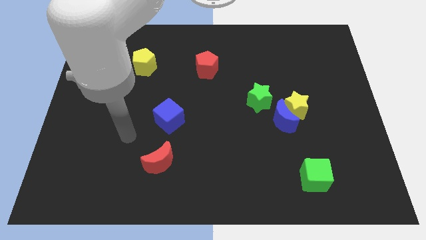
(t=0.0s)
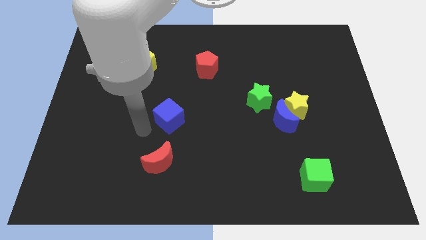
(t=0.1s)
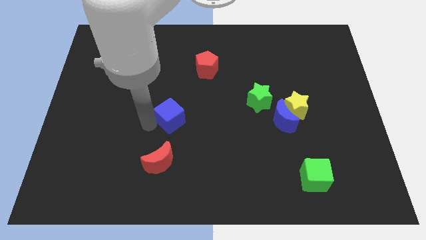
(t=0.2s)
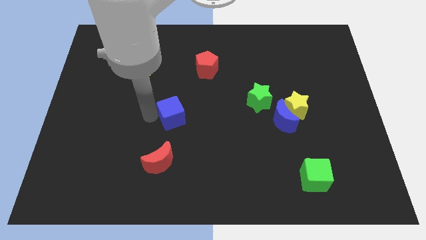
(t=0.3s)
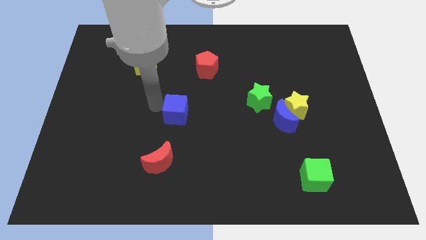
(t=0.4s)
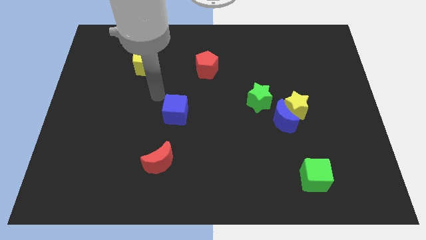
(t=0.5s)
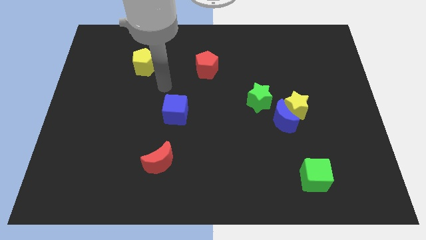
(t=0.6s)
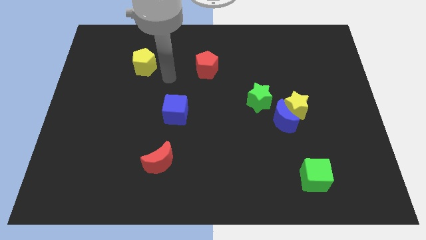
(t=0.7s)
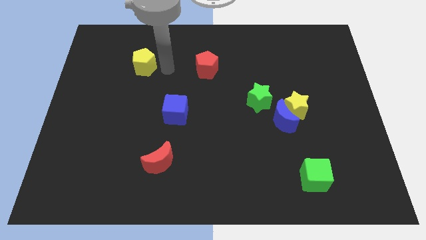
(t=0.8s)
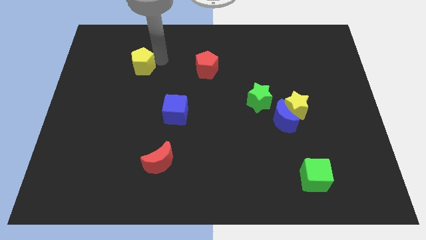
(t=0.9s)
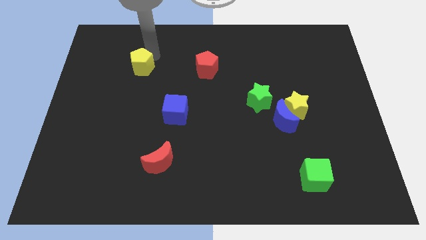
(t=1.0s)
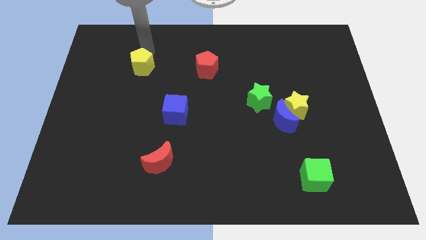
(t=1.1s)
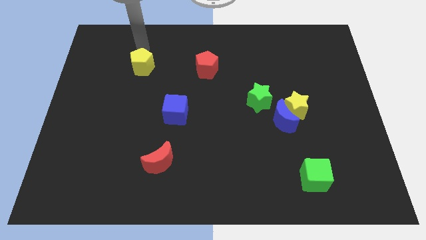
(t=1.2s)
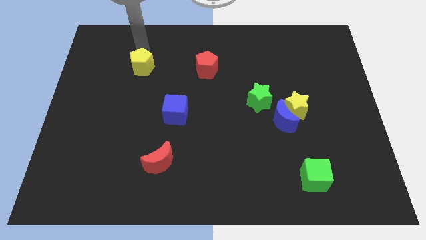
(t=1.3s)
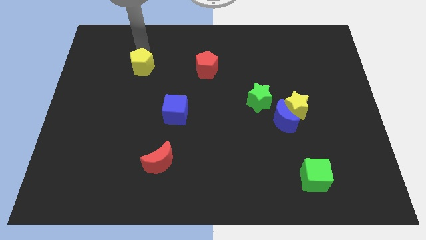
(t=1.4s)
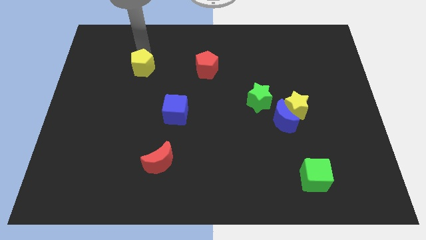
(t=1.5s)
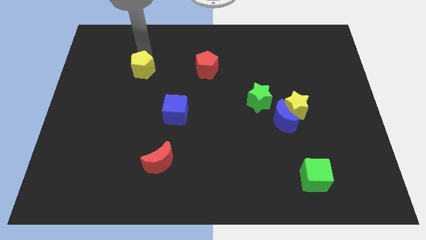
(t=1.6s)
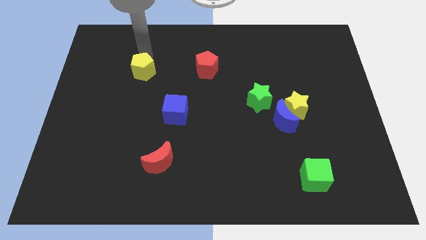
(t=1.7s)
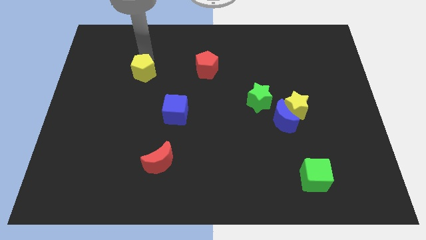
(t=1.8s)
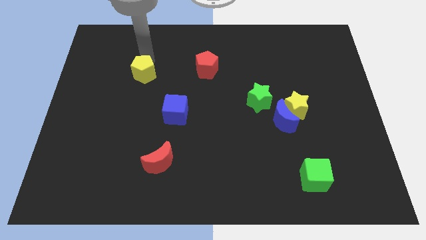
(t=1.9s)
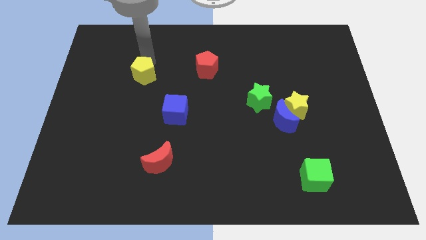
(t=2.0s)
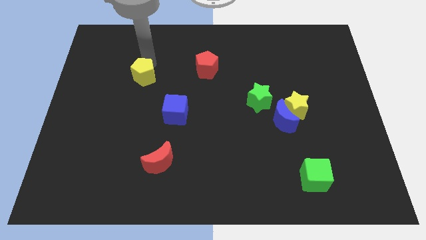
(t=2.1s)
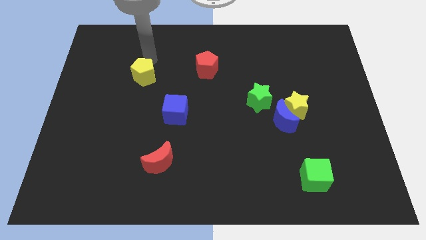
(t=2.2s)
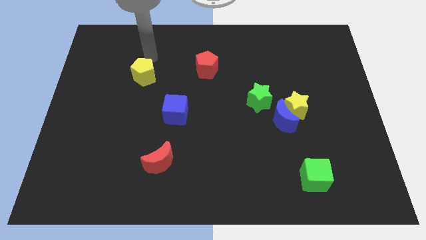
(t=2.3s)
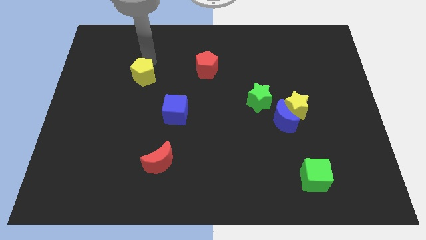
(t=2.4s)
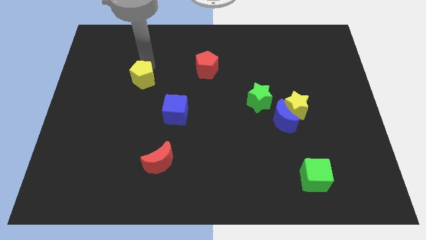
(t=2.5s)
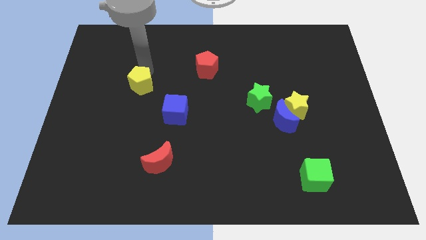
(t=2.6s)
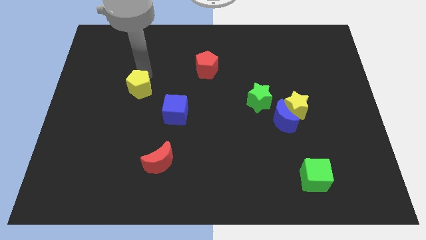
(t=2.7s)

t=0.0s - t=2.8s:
slightly push the yellow pentagon downwards

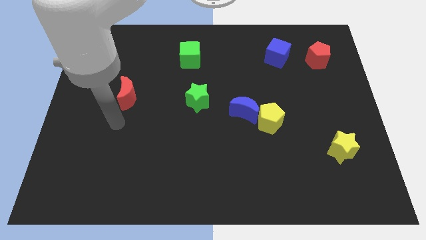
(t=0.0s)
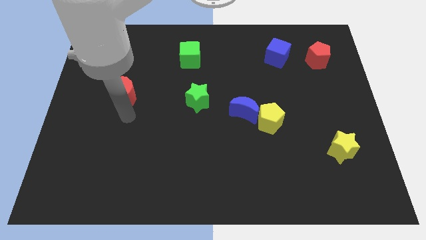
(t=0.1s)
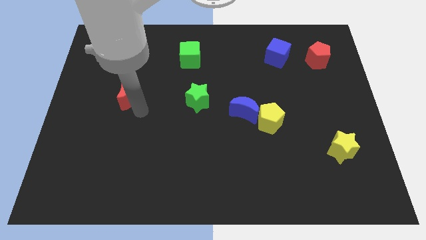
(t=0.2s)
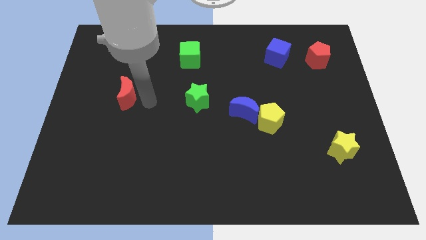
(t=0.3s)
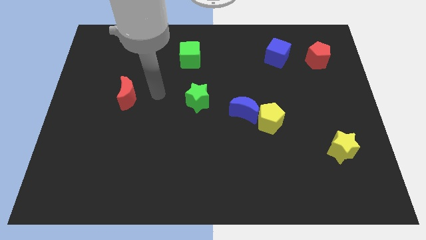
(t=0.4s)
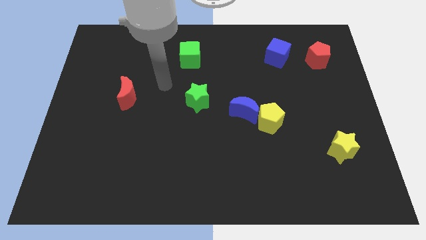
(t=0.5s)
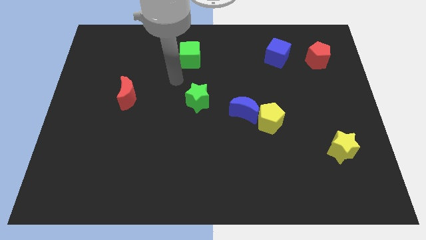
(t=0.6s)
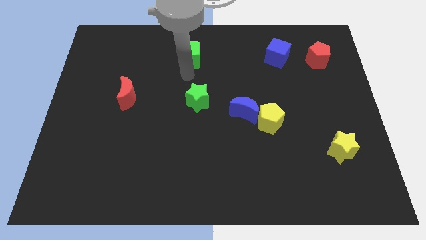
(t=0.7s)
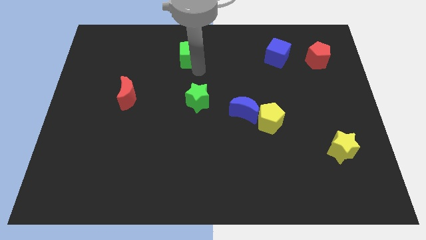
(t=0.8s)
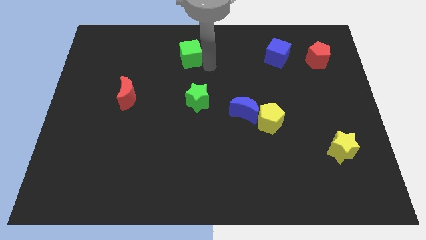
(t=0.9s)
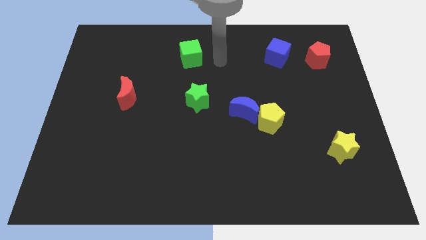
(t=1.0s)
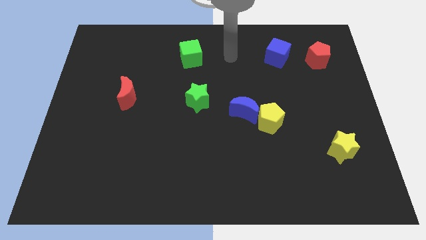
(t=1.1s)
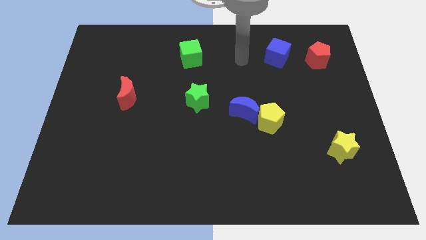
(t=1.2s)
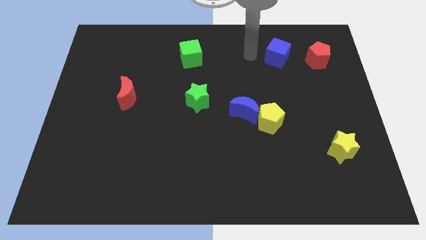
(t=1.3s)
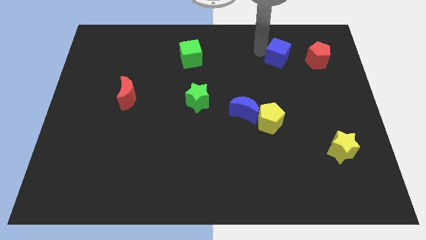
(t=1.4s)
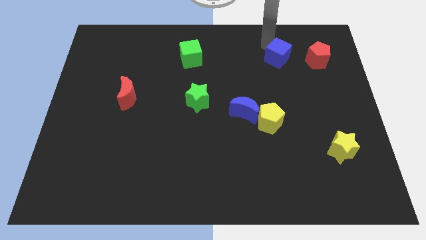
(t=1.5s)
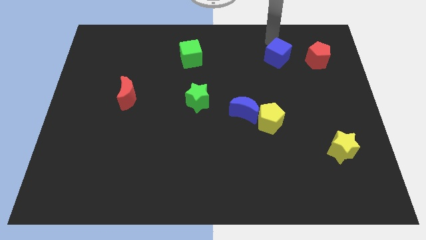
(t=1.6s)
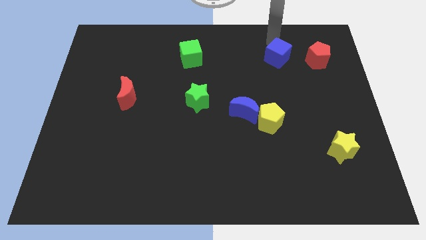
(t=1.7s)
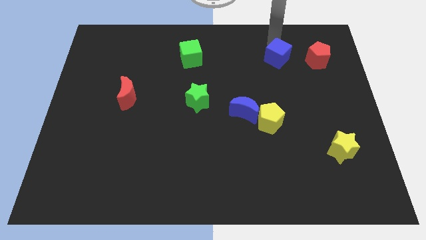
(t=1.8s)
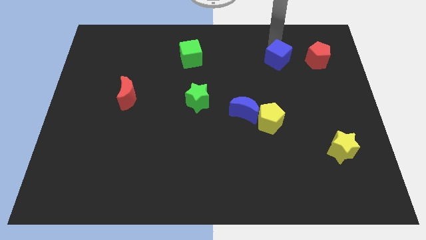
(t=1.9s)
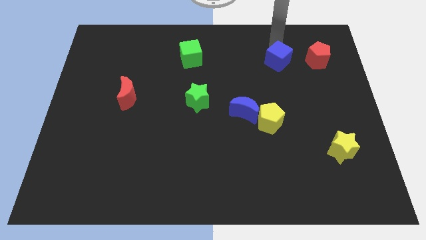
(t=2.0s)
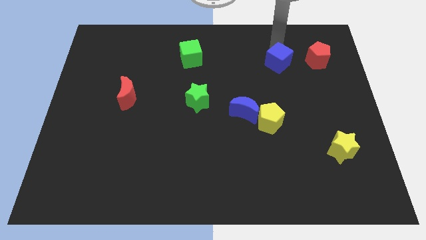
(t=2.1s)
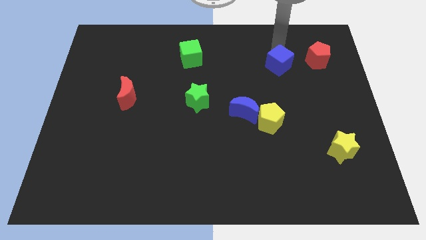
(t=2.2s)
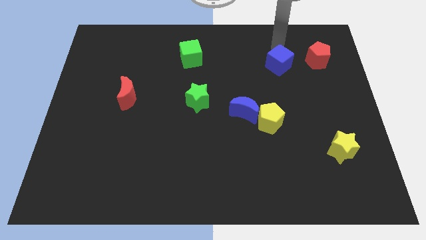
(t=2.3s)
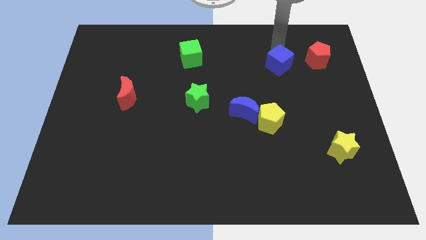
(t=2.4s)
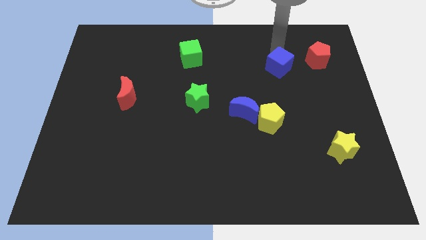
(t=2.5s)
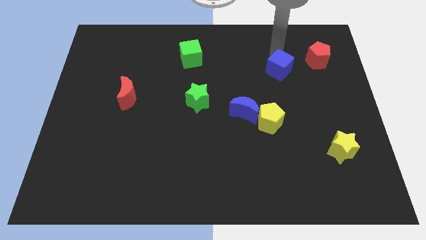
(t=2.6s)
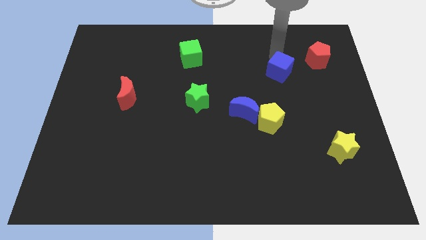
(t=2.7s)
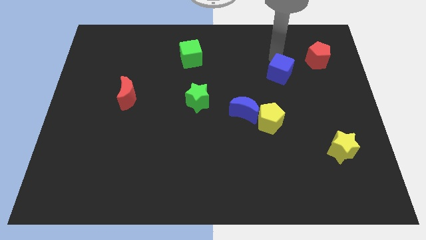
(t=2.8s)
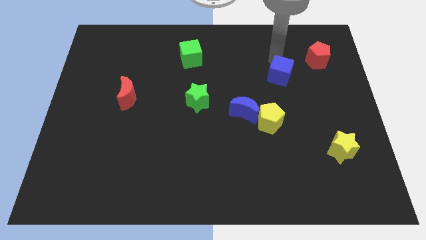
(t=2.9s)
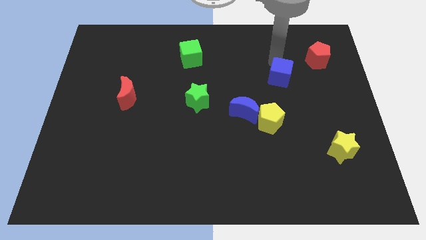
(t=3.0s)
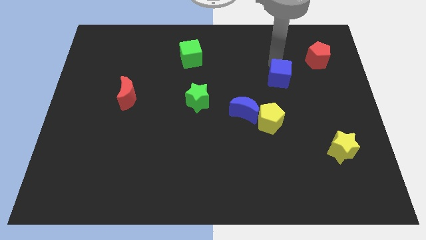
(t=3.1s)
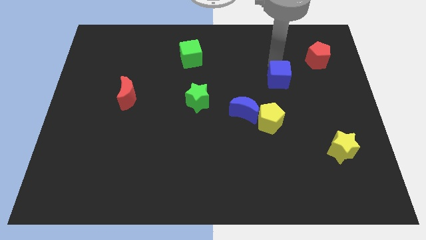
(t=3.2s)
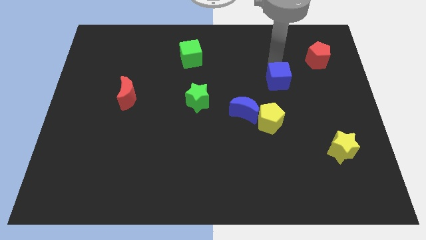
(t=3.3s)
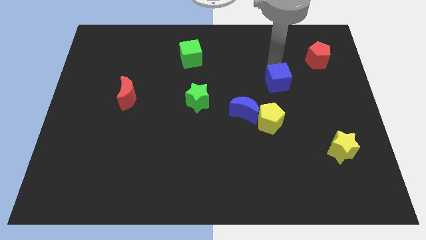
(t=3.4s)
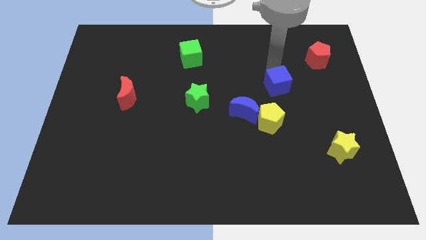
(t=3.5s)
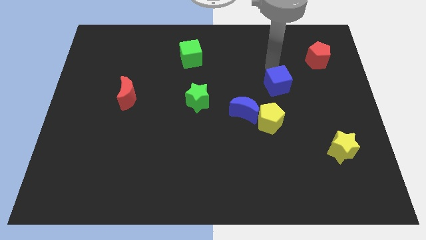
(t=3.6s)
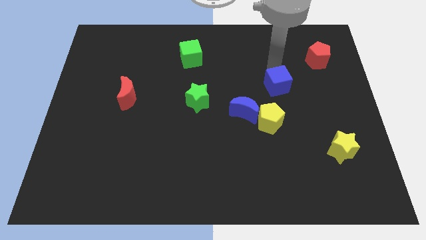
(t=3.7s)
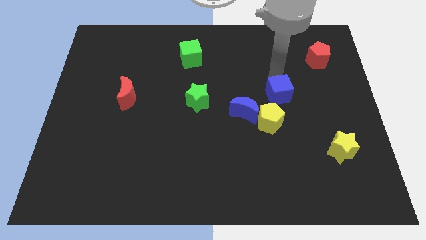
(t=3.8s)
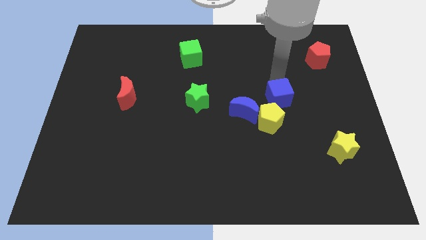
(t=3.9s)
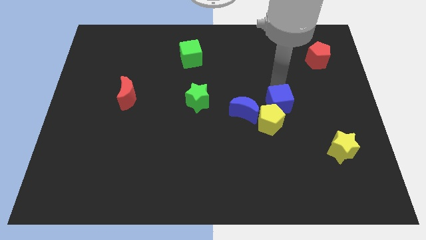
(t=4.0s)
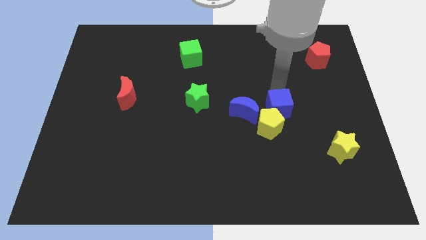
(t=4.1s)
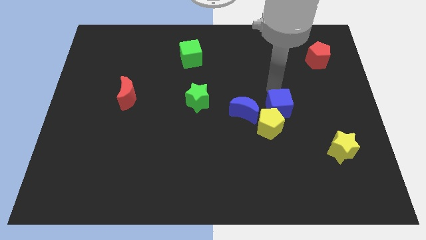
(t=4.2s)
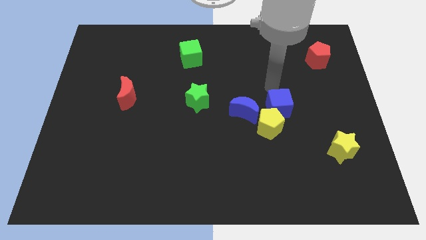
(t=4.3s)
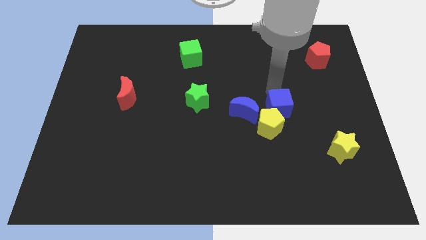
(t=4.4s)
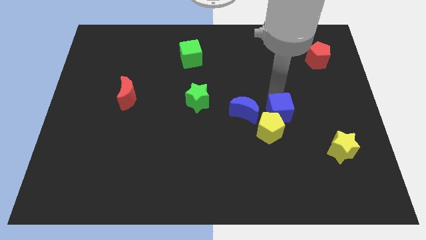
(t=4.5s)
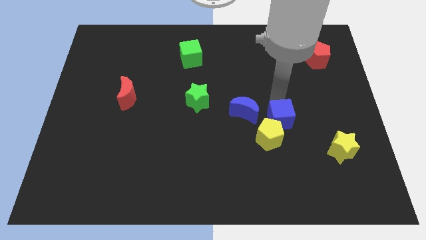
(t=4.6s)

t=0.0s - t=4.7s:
move the blue cube down

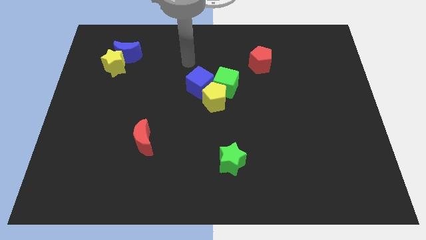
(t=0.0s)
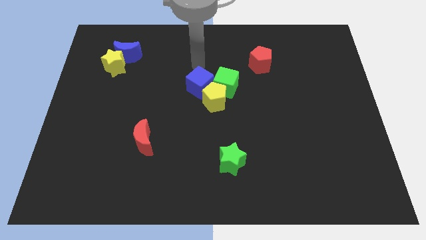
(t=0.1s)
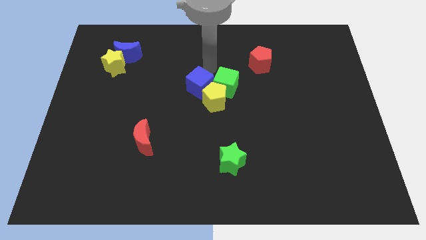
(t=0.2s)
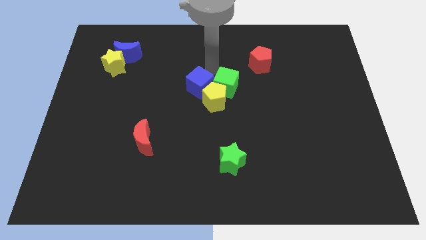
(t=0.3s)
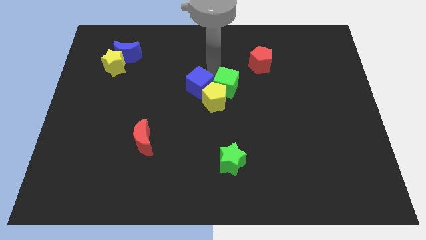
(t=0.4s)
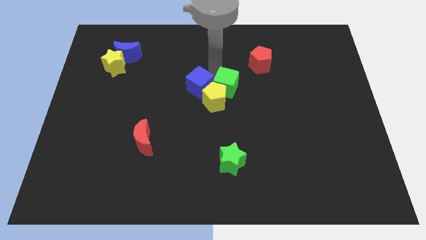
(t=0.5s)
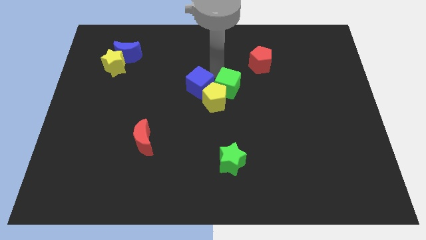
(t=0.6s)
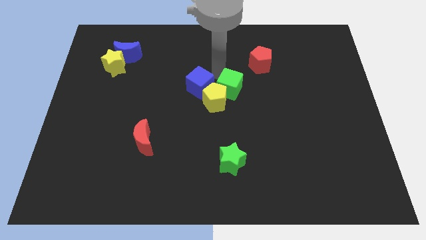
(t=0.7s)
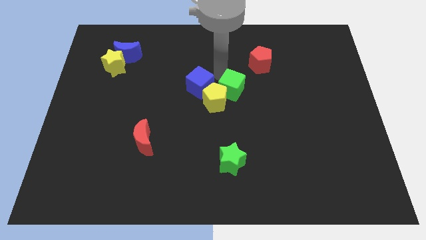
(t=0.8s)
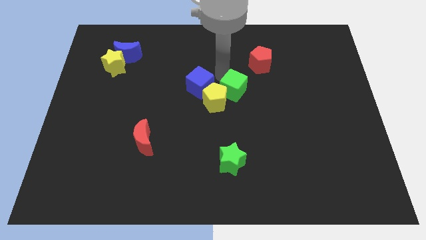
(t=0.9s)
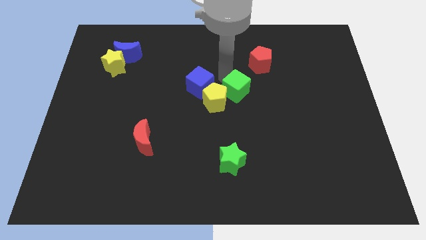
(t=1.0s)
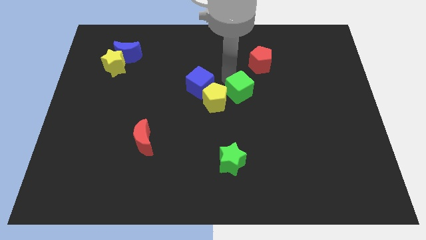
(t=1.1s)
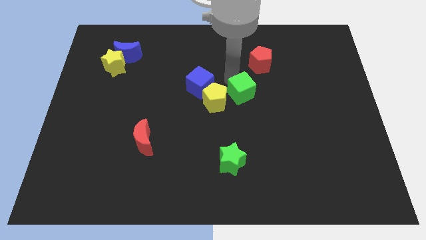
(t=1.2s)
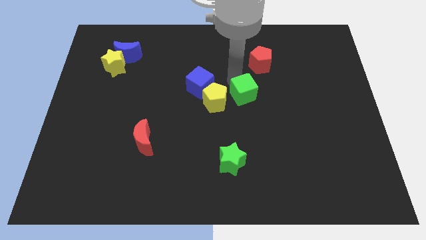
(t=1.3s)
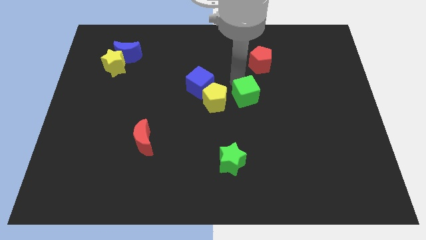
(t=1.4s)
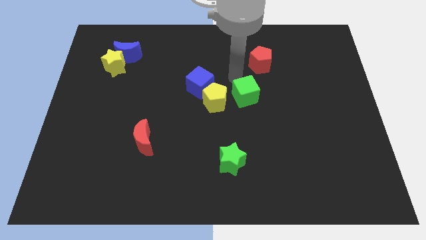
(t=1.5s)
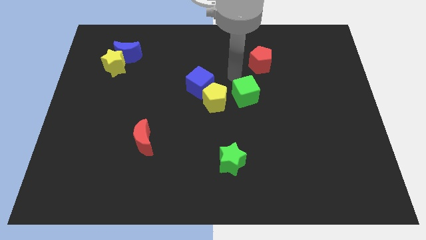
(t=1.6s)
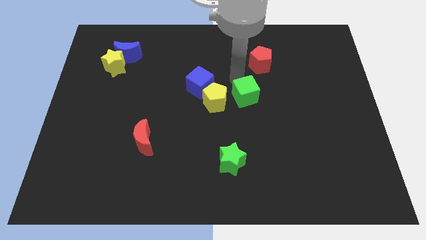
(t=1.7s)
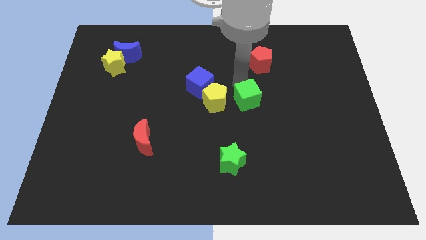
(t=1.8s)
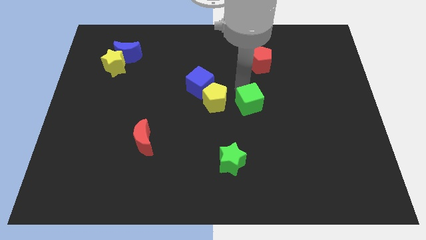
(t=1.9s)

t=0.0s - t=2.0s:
push the green cube a little bit down and to the right
